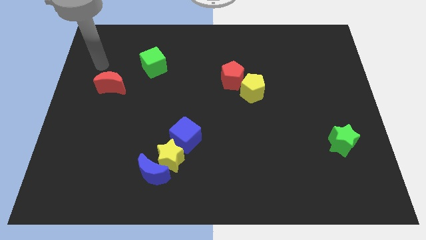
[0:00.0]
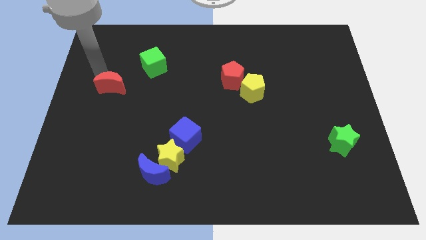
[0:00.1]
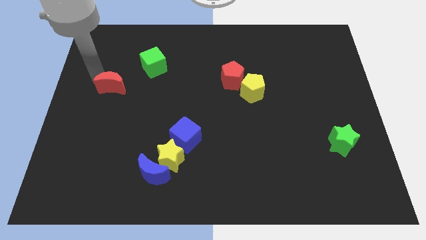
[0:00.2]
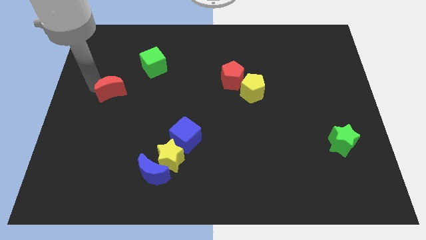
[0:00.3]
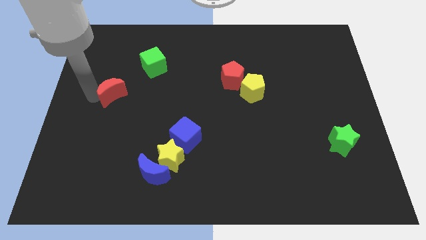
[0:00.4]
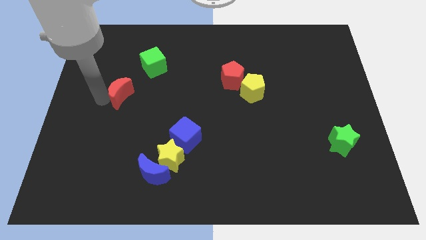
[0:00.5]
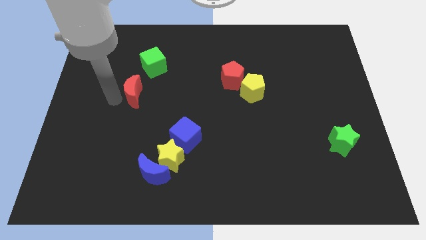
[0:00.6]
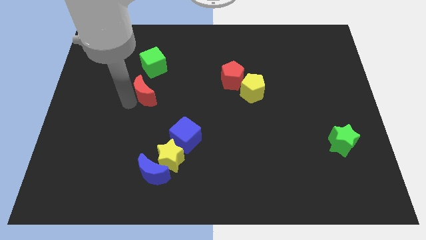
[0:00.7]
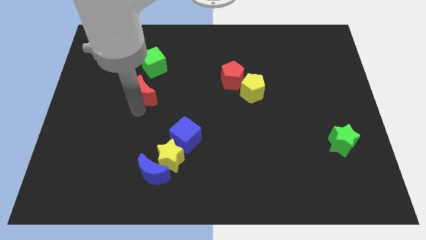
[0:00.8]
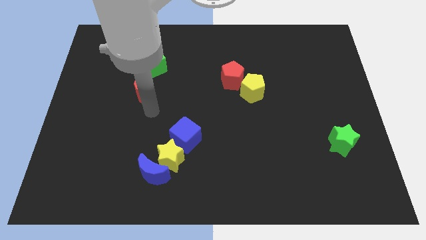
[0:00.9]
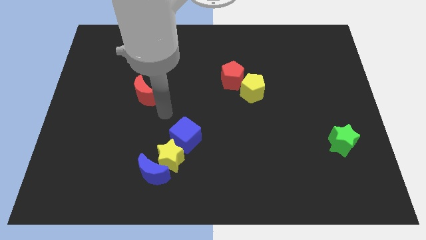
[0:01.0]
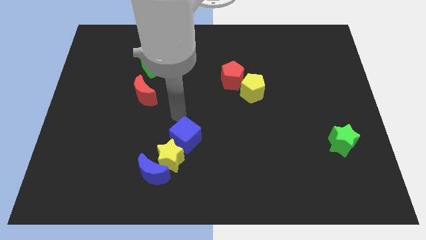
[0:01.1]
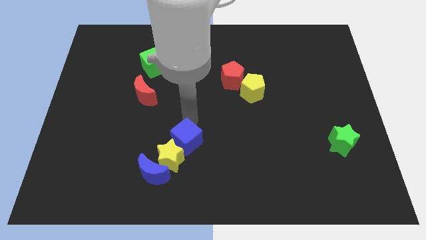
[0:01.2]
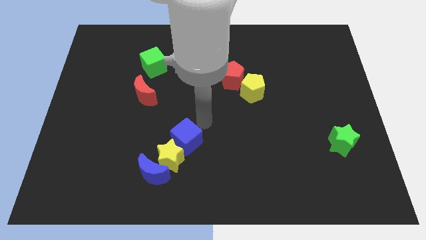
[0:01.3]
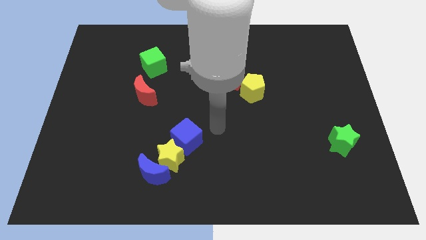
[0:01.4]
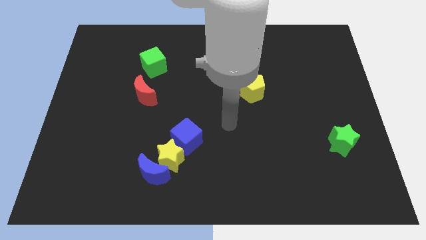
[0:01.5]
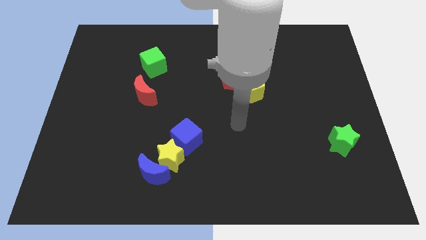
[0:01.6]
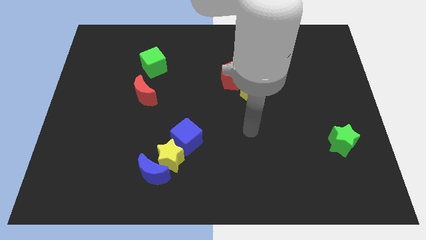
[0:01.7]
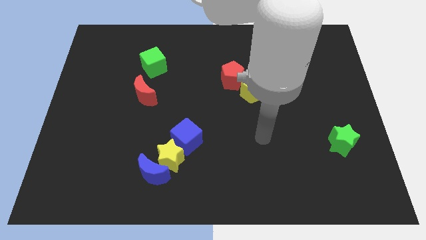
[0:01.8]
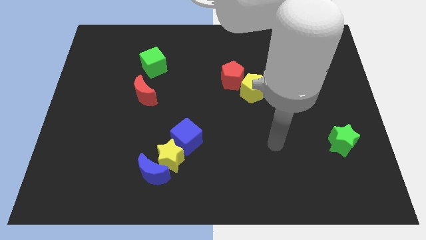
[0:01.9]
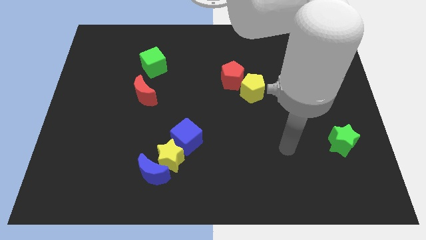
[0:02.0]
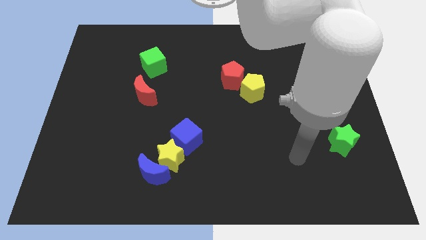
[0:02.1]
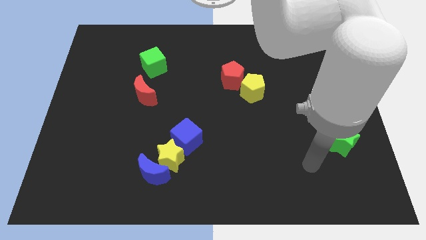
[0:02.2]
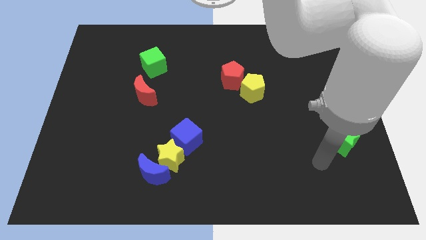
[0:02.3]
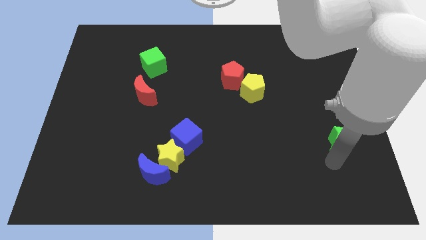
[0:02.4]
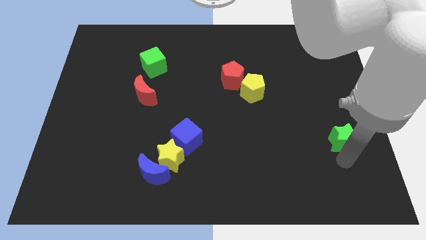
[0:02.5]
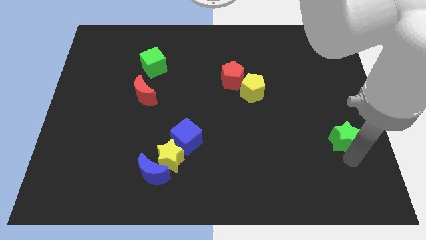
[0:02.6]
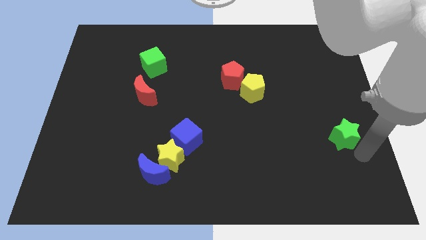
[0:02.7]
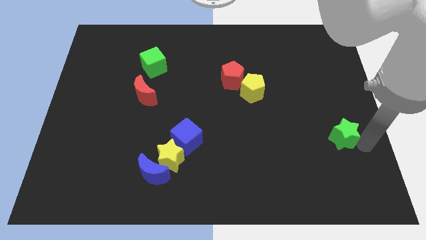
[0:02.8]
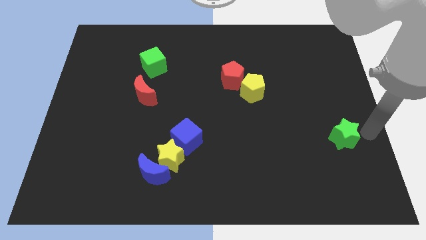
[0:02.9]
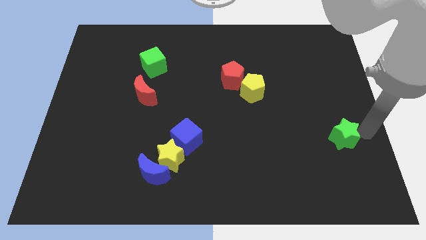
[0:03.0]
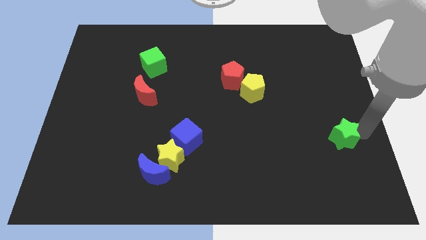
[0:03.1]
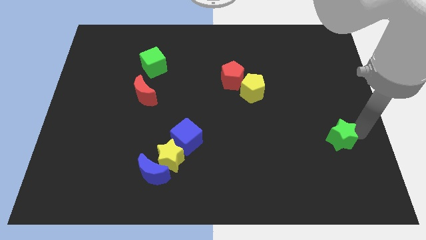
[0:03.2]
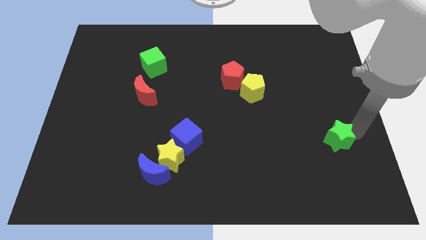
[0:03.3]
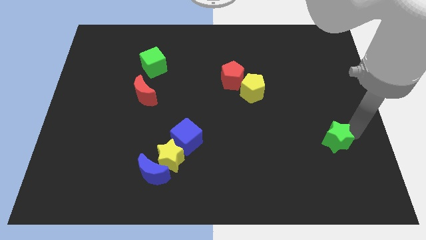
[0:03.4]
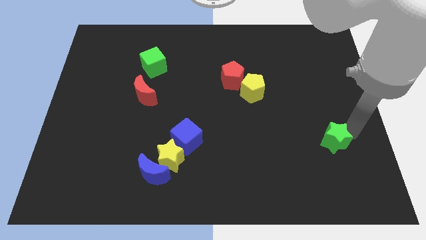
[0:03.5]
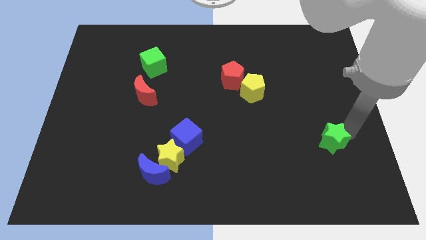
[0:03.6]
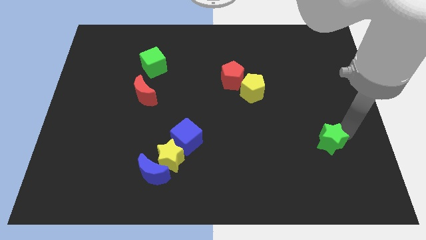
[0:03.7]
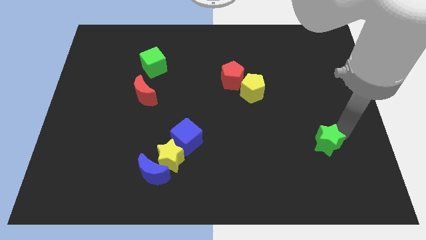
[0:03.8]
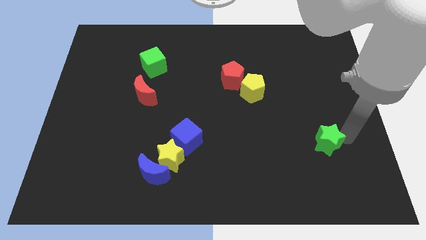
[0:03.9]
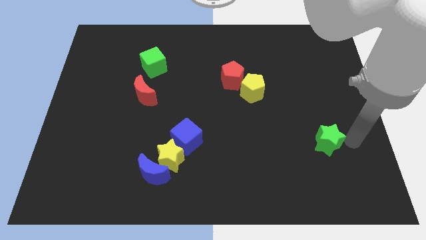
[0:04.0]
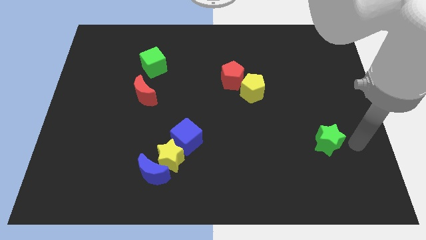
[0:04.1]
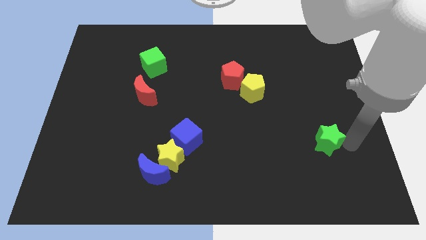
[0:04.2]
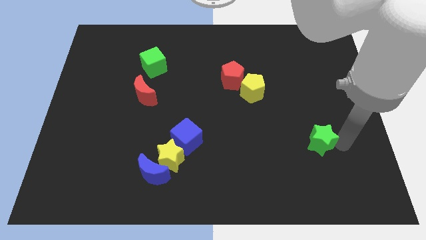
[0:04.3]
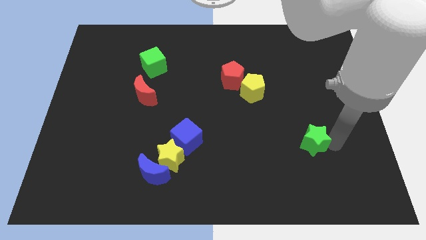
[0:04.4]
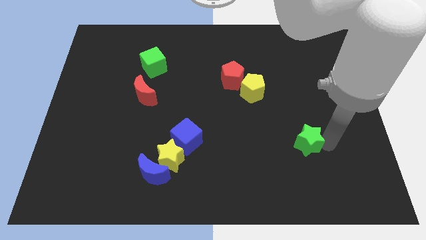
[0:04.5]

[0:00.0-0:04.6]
slide the green star left a little

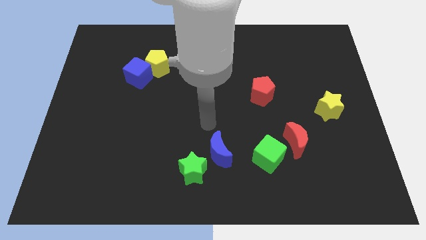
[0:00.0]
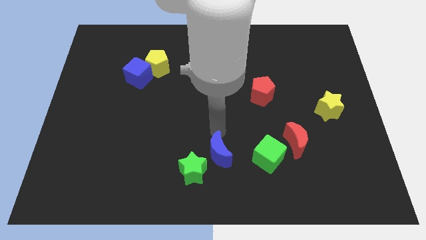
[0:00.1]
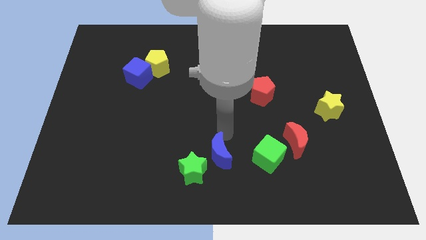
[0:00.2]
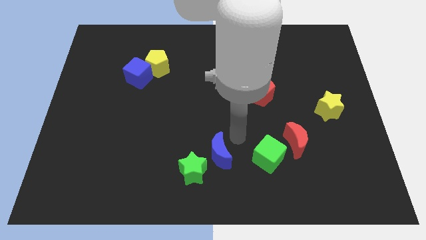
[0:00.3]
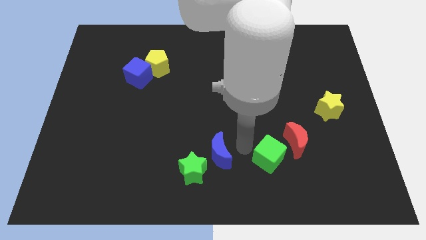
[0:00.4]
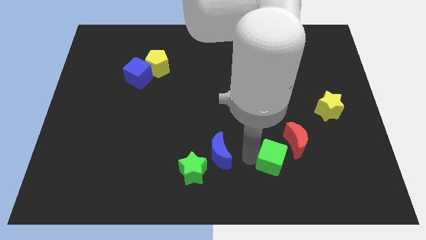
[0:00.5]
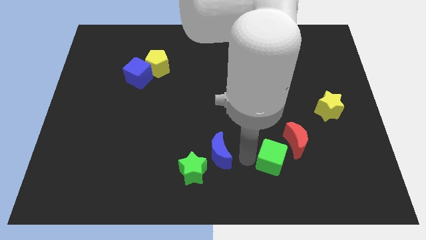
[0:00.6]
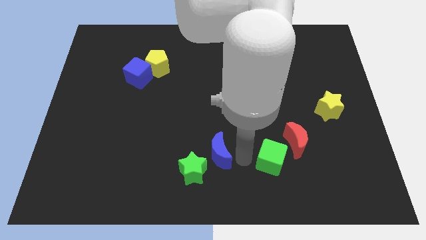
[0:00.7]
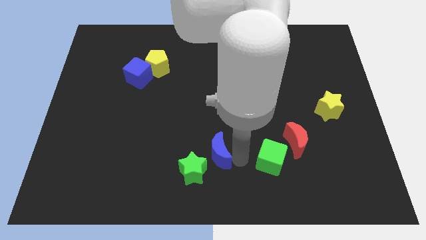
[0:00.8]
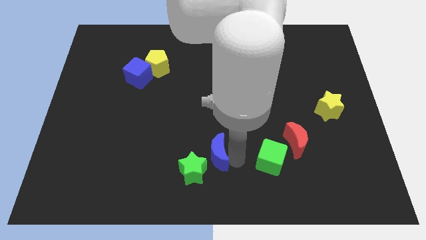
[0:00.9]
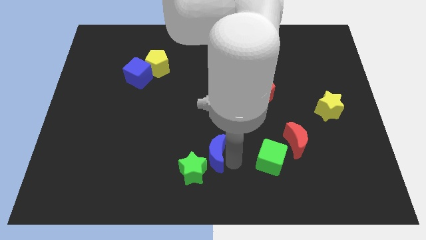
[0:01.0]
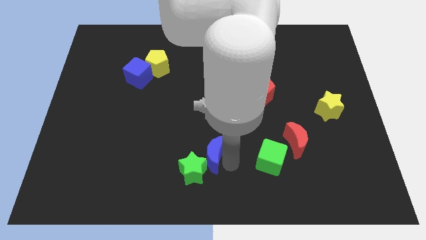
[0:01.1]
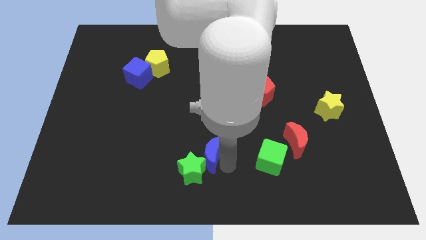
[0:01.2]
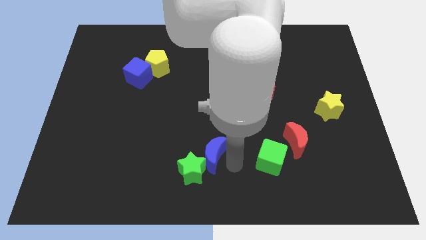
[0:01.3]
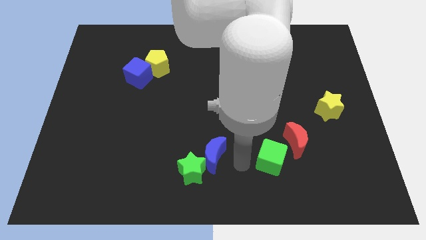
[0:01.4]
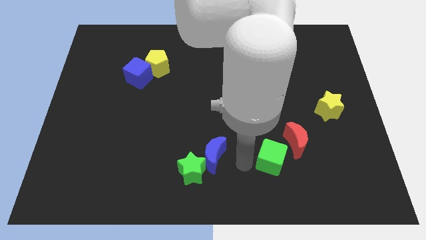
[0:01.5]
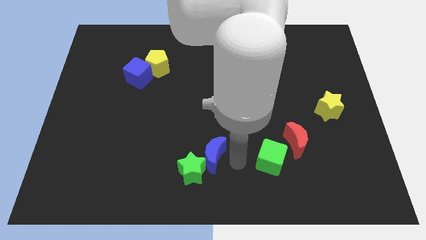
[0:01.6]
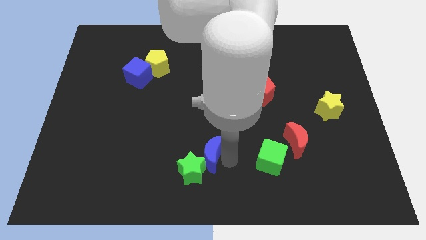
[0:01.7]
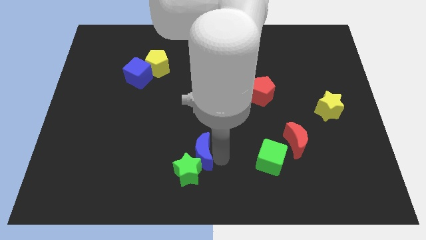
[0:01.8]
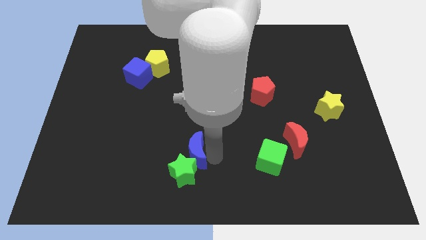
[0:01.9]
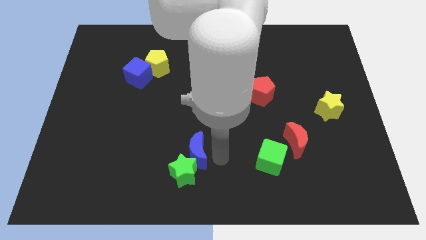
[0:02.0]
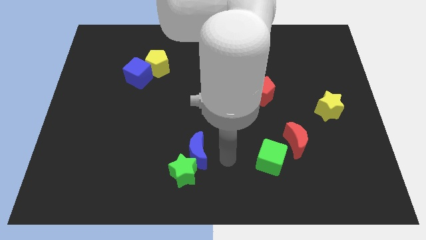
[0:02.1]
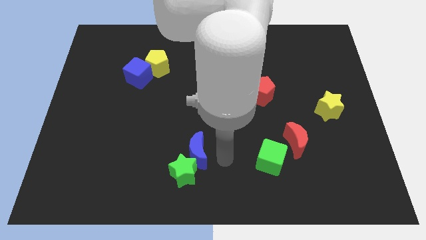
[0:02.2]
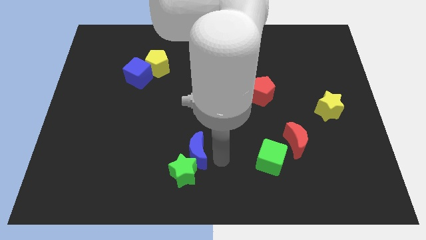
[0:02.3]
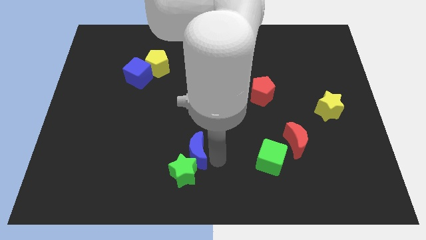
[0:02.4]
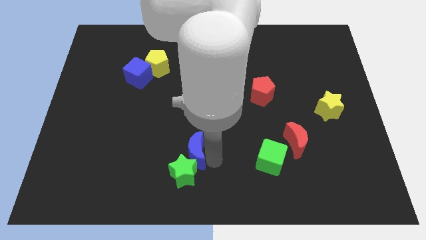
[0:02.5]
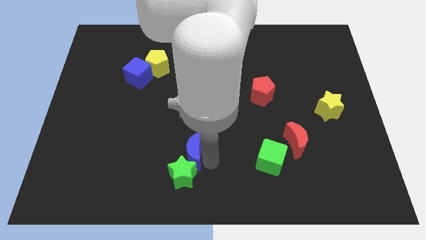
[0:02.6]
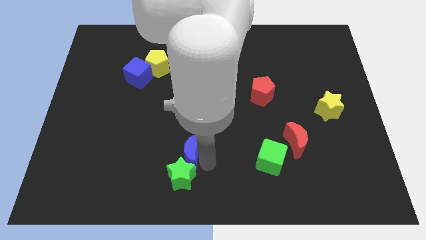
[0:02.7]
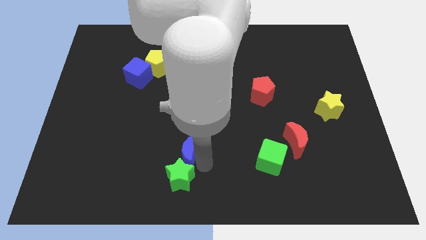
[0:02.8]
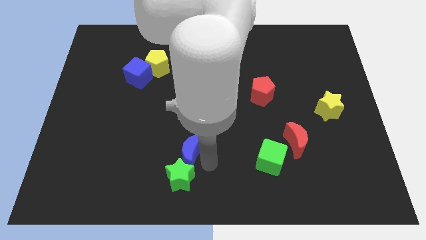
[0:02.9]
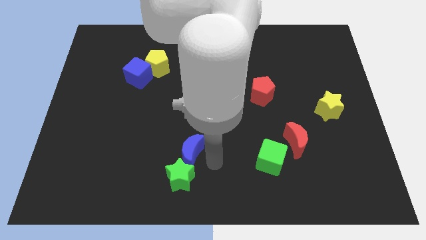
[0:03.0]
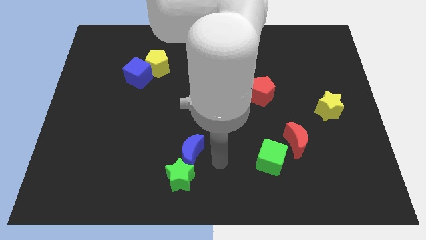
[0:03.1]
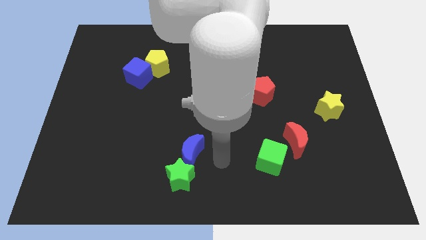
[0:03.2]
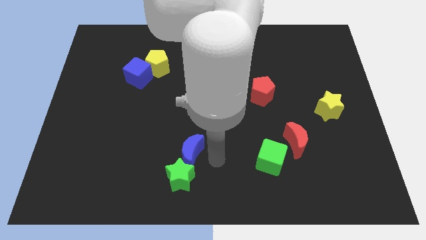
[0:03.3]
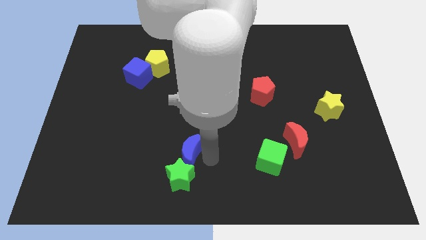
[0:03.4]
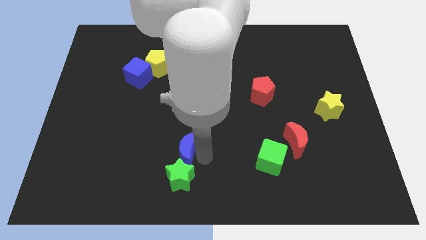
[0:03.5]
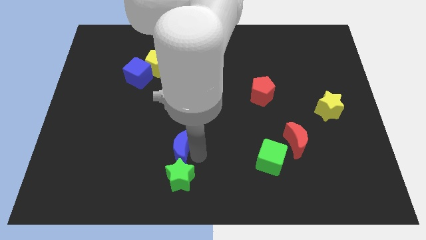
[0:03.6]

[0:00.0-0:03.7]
move the blue moon left a little
